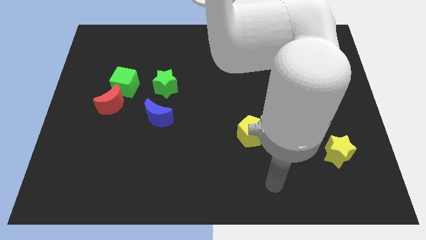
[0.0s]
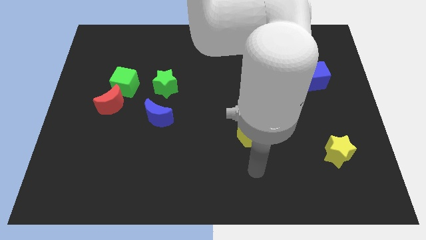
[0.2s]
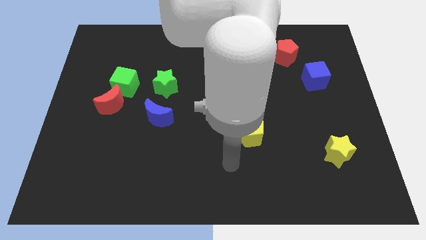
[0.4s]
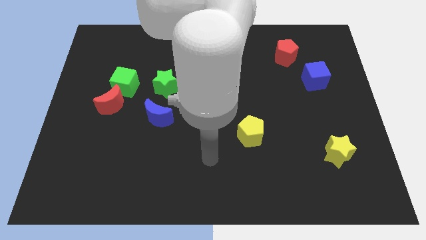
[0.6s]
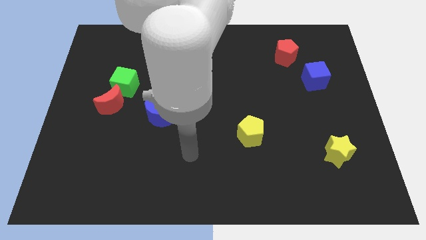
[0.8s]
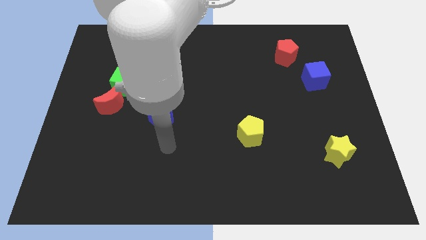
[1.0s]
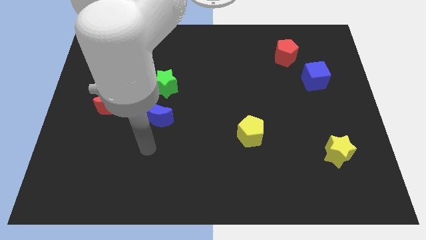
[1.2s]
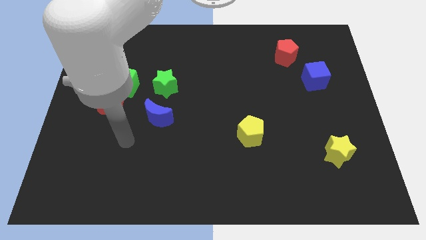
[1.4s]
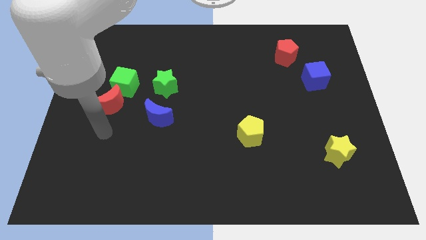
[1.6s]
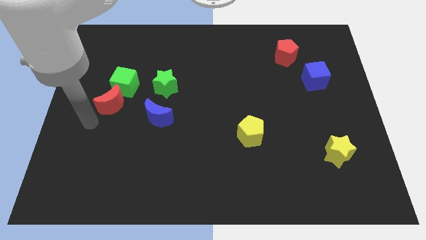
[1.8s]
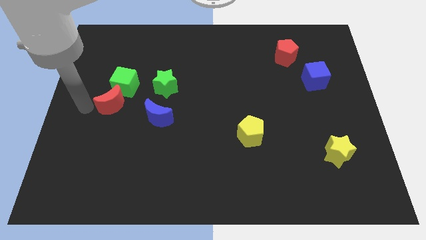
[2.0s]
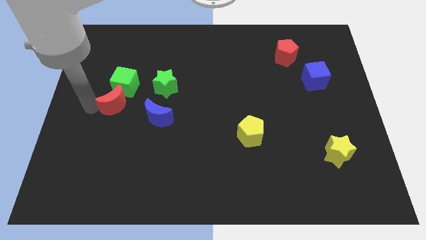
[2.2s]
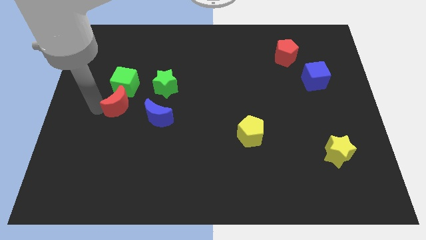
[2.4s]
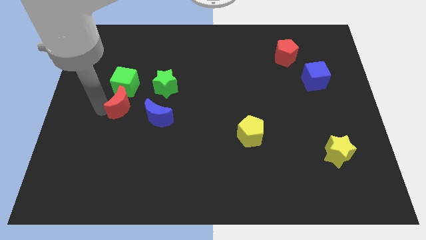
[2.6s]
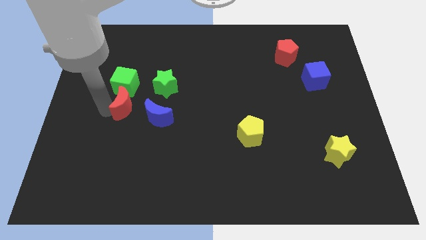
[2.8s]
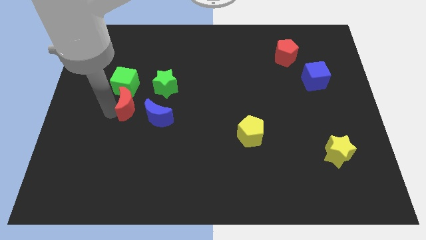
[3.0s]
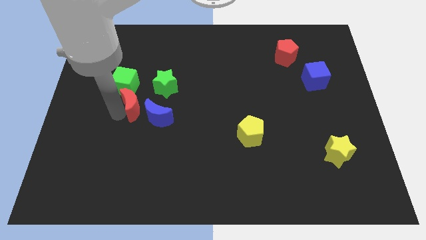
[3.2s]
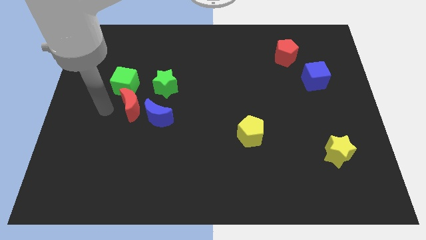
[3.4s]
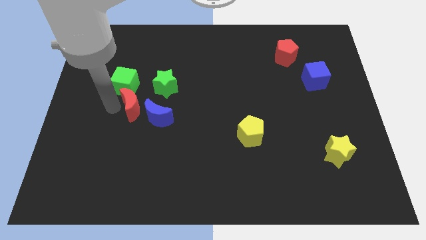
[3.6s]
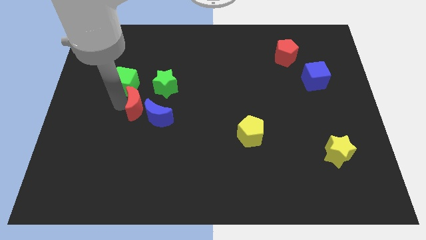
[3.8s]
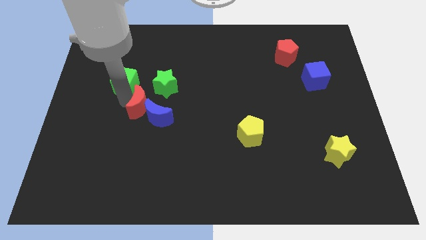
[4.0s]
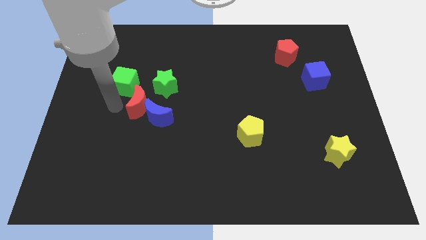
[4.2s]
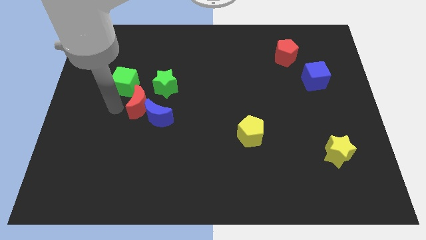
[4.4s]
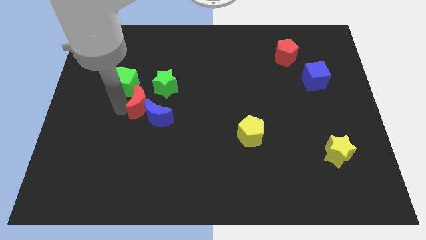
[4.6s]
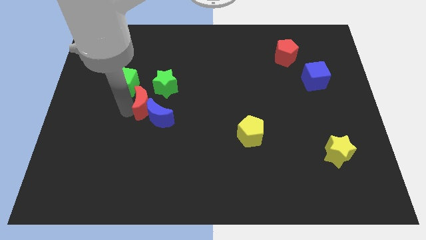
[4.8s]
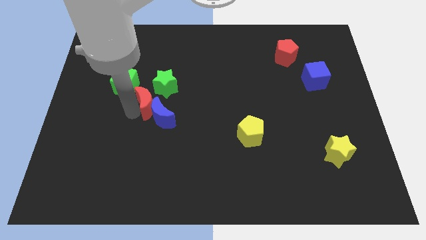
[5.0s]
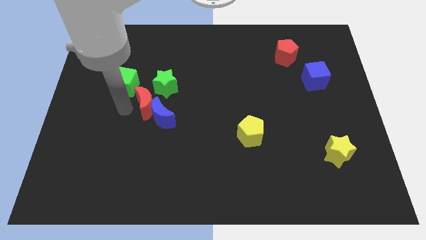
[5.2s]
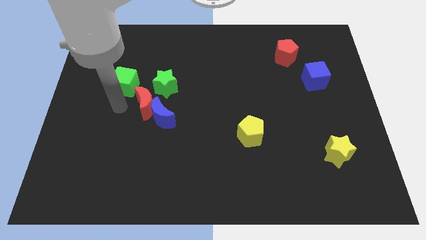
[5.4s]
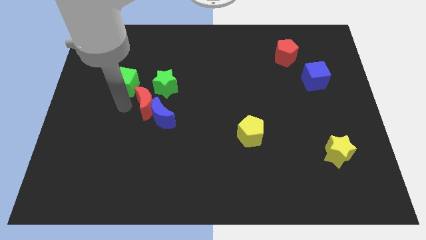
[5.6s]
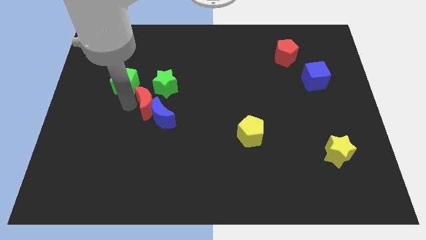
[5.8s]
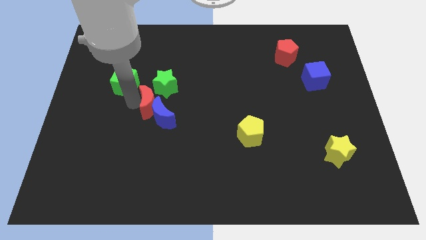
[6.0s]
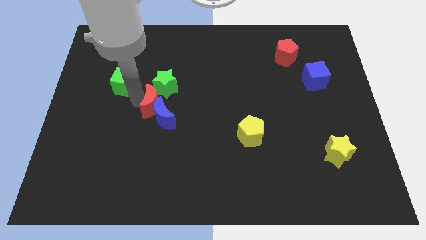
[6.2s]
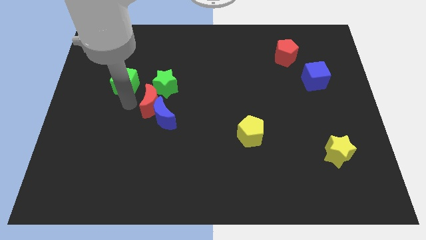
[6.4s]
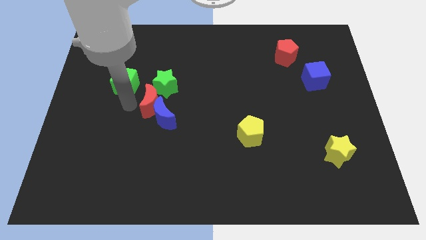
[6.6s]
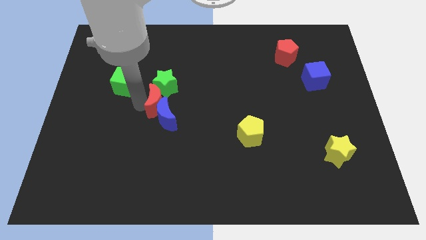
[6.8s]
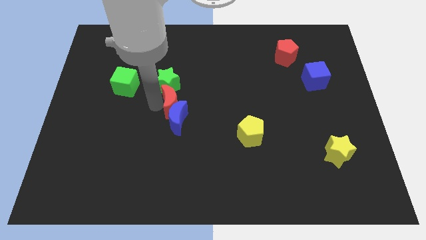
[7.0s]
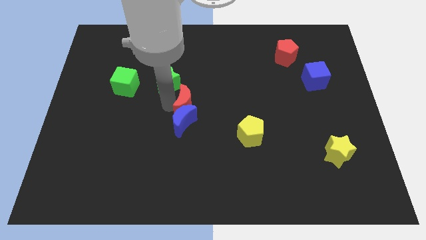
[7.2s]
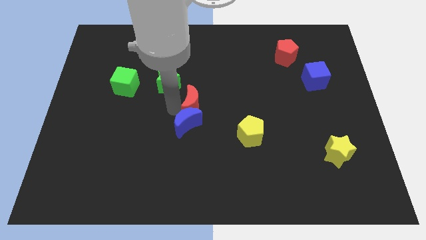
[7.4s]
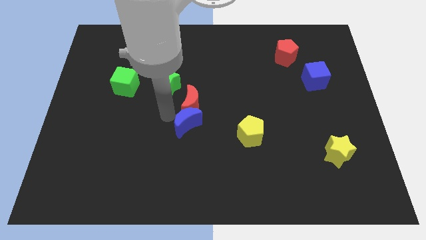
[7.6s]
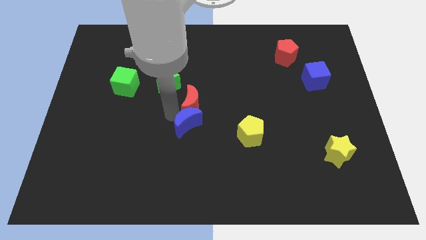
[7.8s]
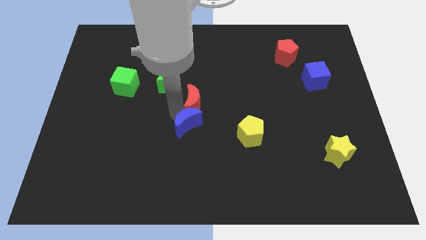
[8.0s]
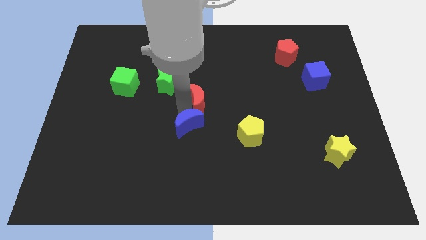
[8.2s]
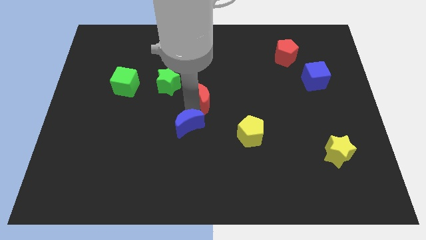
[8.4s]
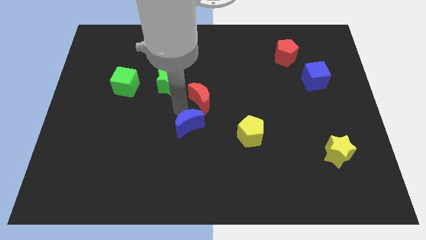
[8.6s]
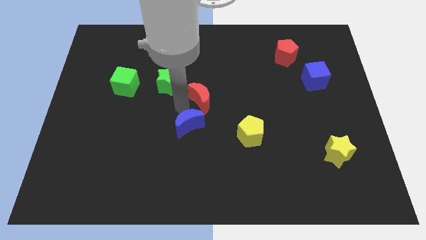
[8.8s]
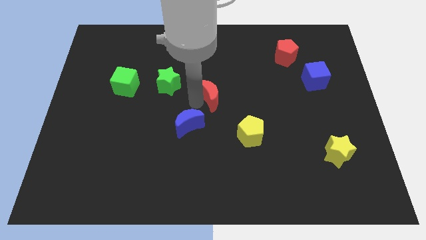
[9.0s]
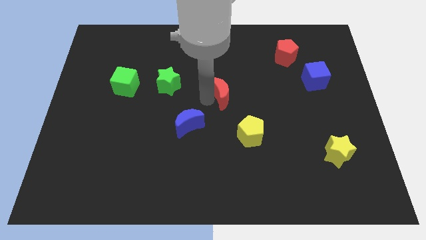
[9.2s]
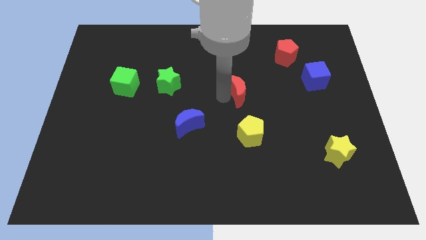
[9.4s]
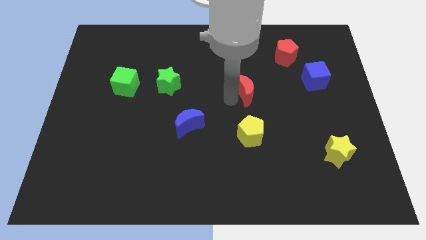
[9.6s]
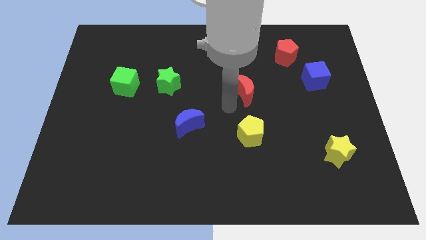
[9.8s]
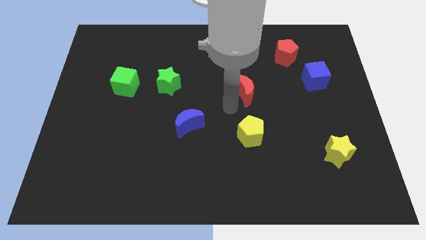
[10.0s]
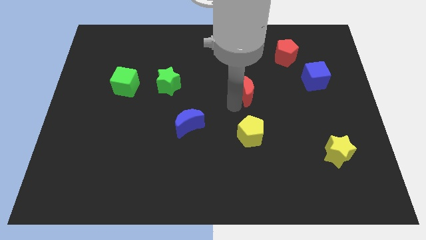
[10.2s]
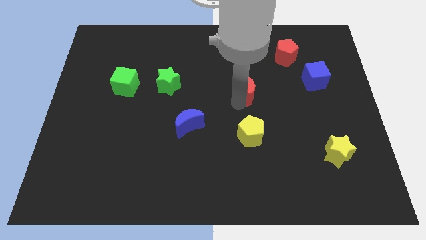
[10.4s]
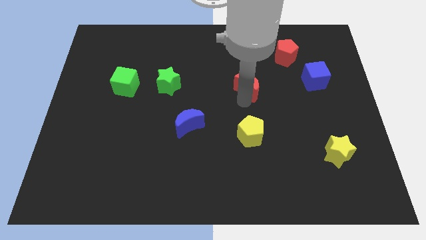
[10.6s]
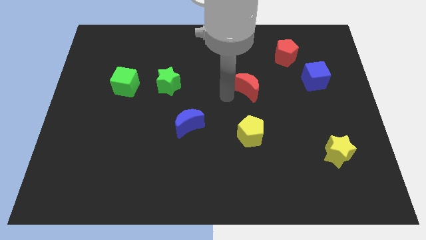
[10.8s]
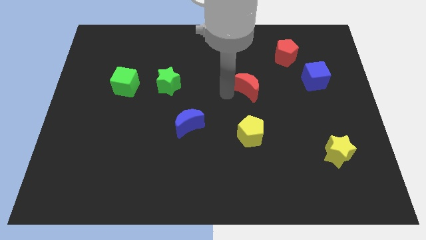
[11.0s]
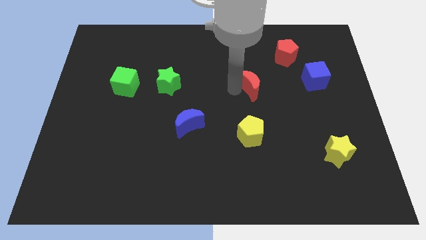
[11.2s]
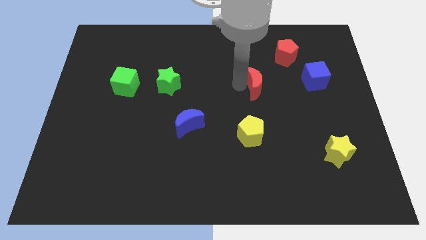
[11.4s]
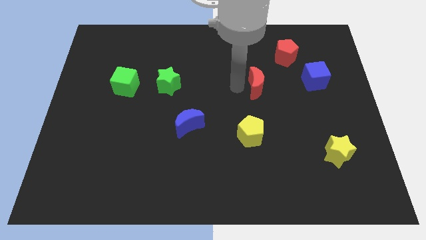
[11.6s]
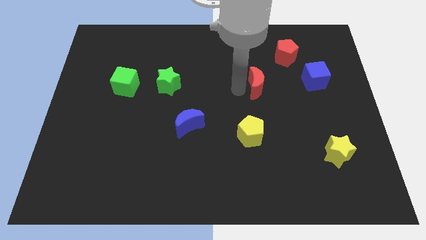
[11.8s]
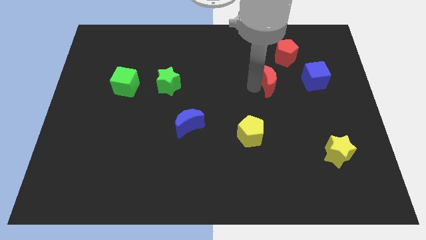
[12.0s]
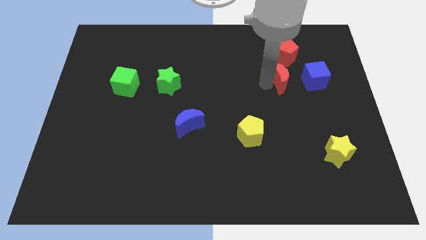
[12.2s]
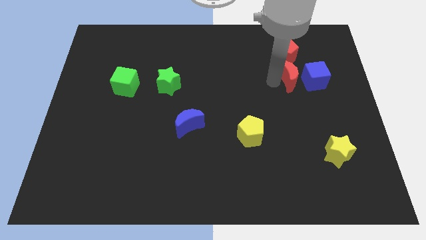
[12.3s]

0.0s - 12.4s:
move the red moon towards the blue cube

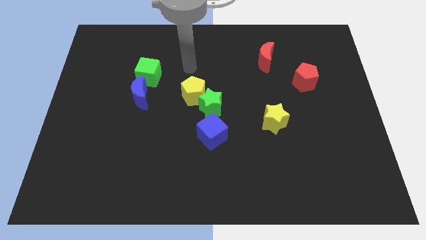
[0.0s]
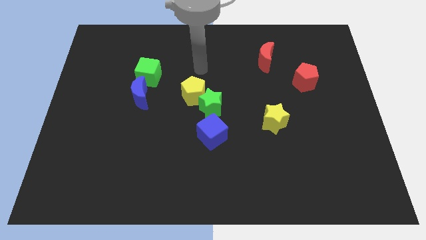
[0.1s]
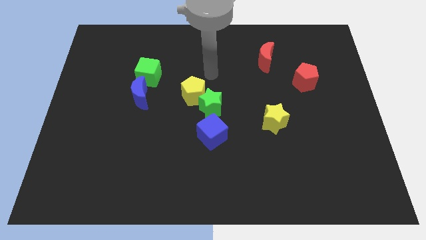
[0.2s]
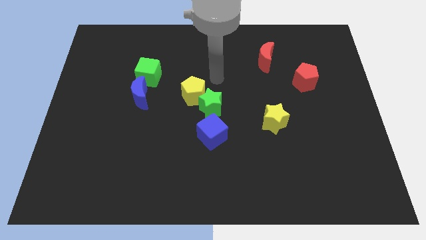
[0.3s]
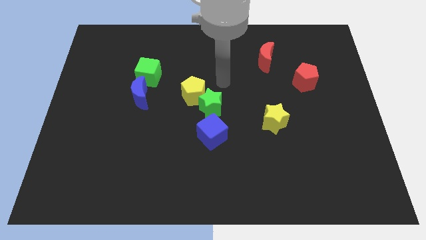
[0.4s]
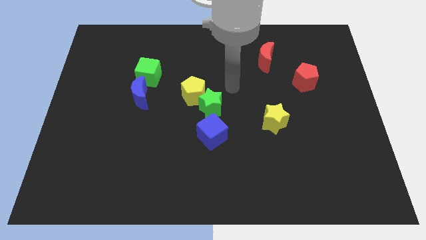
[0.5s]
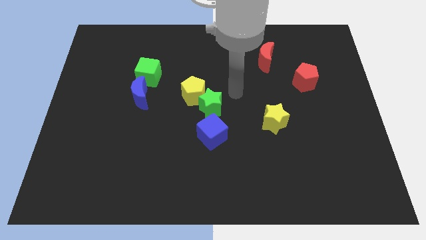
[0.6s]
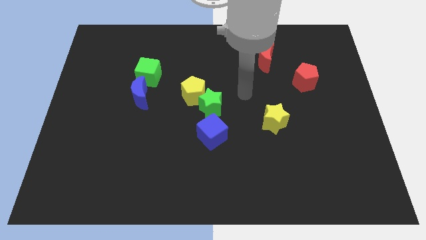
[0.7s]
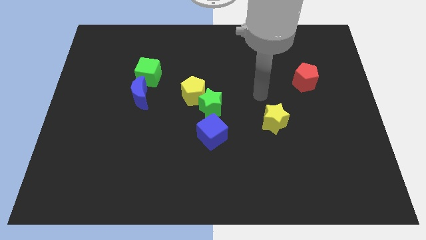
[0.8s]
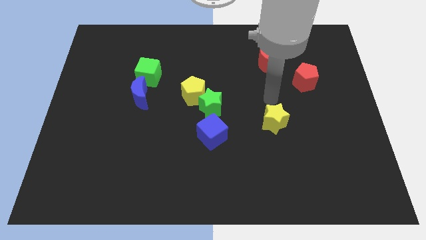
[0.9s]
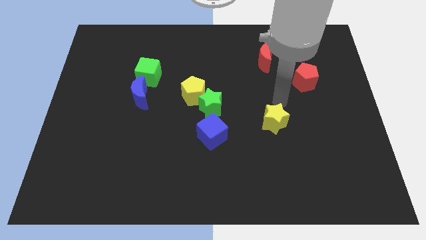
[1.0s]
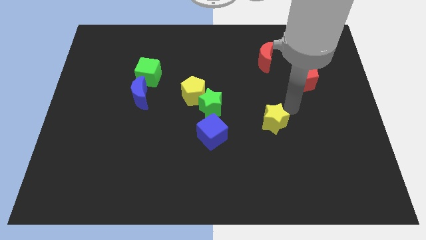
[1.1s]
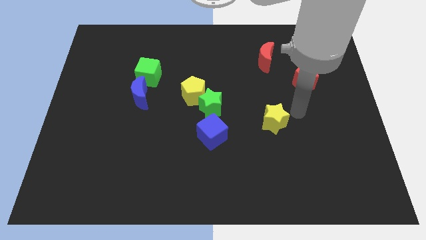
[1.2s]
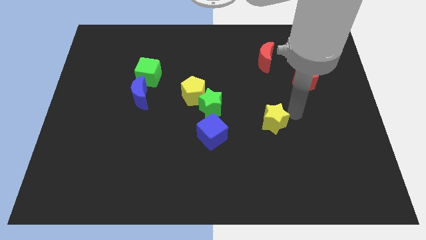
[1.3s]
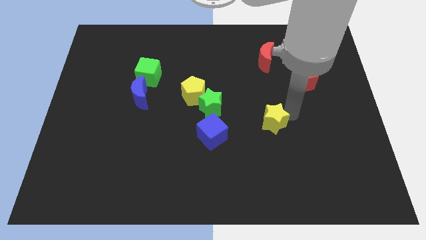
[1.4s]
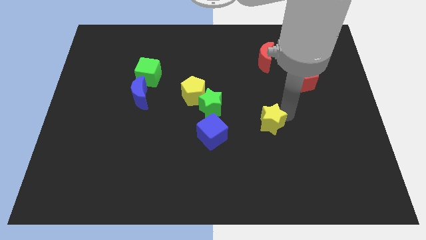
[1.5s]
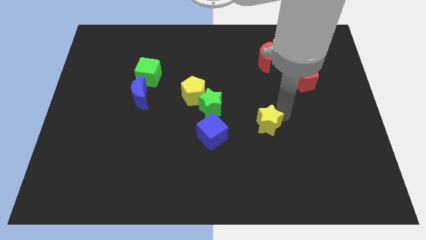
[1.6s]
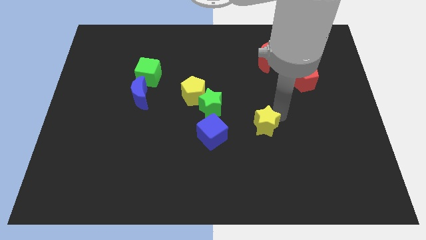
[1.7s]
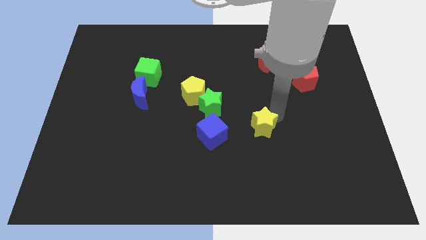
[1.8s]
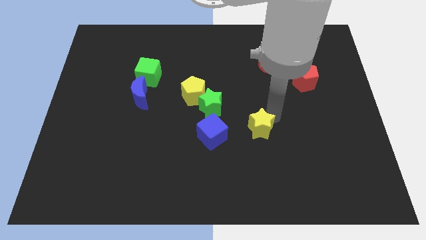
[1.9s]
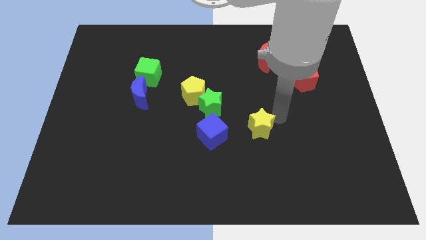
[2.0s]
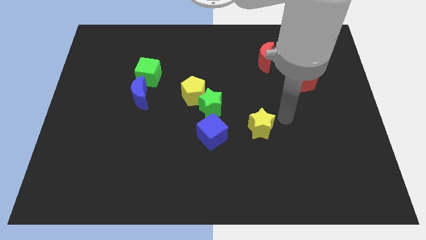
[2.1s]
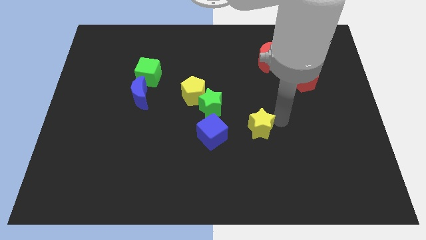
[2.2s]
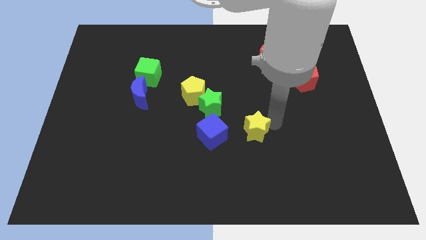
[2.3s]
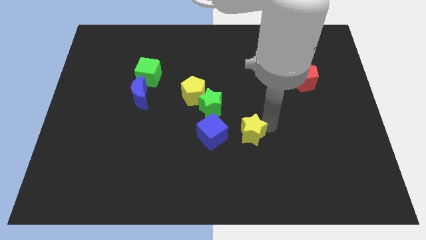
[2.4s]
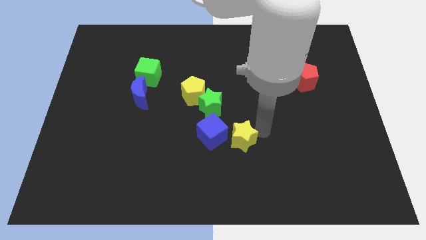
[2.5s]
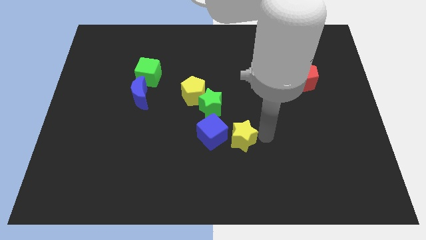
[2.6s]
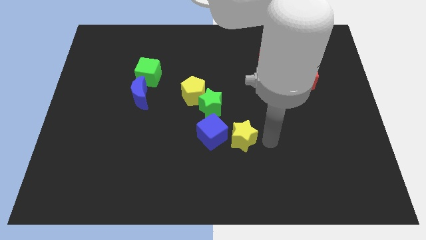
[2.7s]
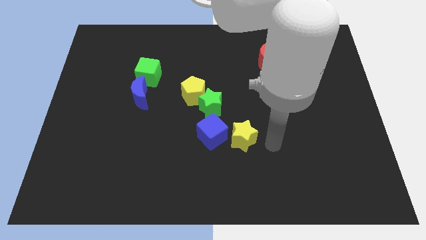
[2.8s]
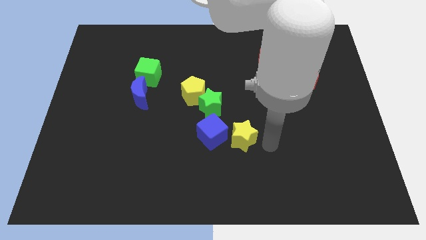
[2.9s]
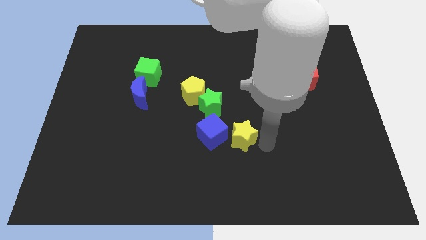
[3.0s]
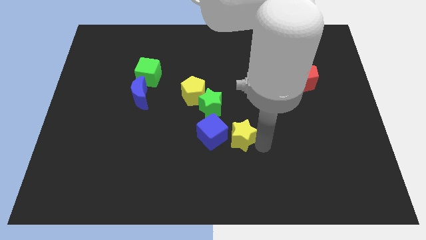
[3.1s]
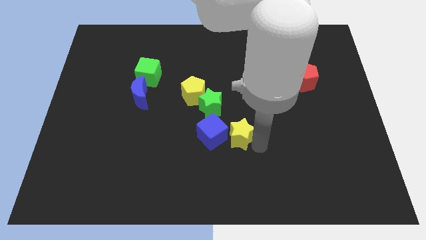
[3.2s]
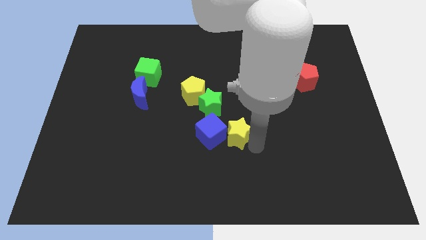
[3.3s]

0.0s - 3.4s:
slide the yellow star close to the blue cube
